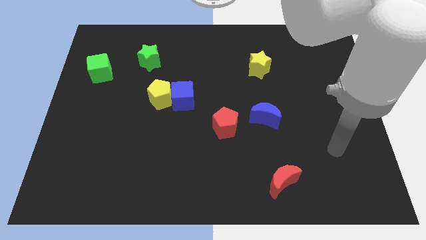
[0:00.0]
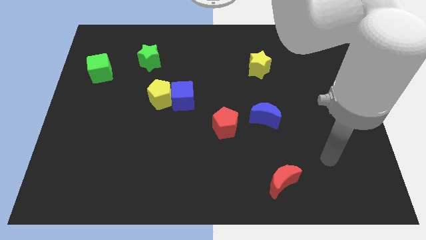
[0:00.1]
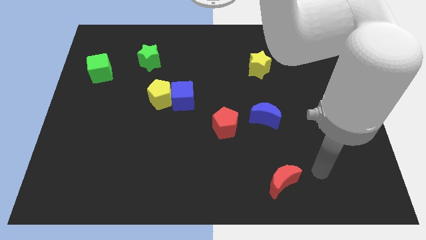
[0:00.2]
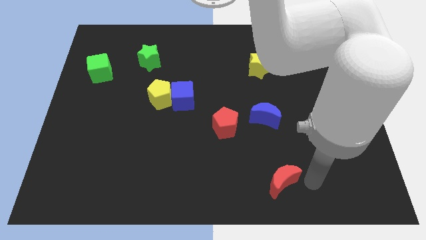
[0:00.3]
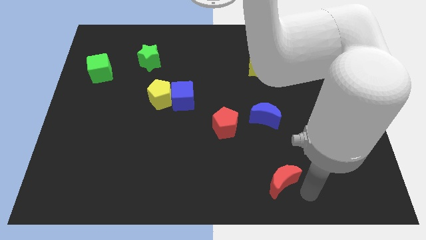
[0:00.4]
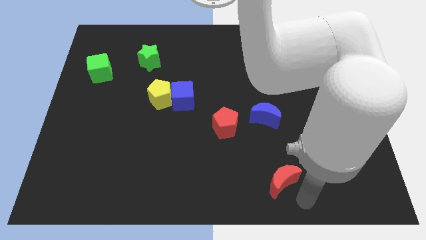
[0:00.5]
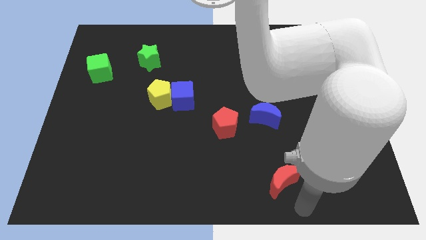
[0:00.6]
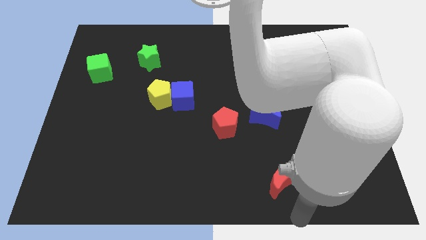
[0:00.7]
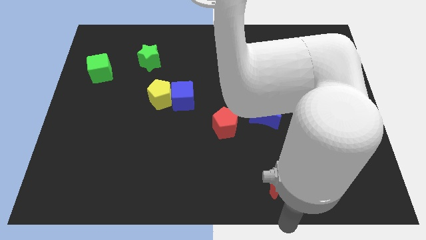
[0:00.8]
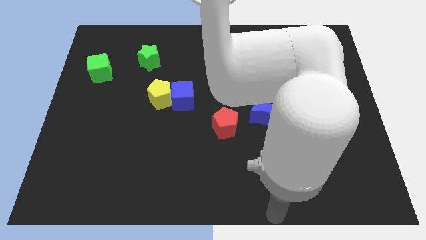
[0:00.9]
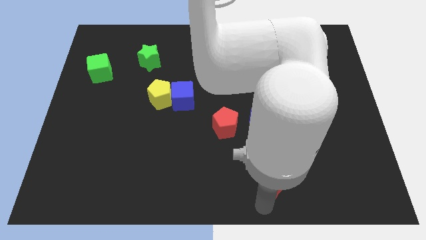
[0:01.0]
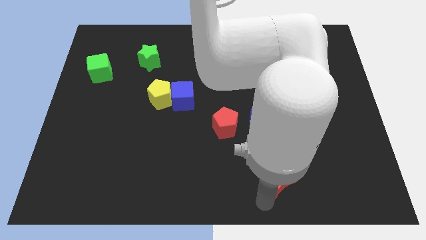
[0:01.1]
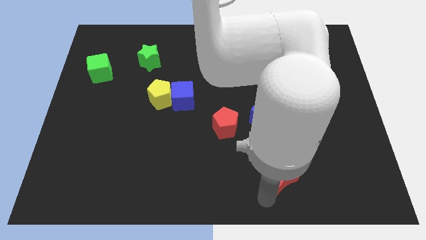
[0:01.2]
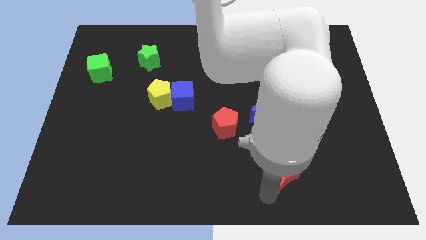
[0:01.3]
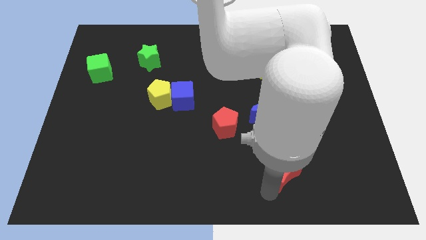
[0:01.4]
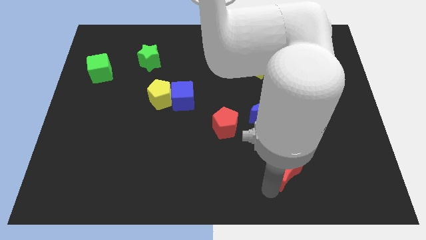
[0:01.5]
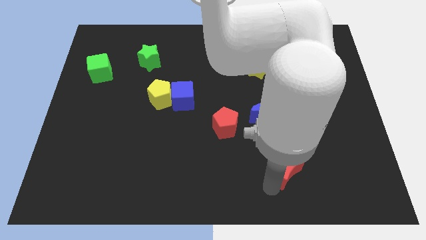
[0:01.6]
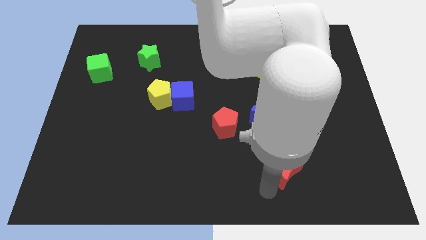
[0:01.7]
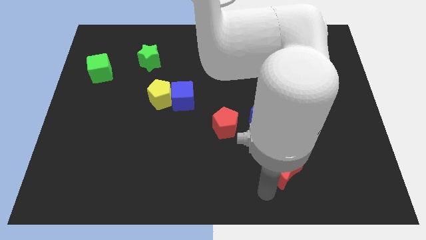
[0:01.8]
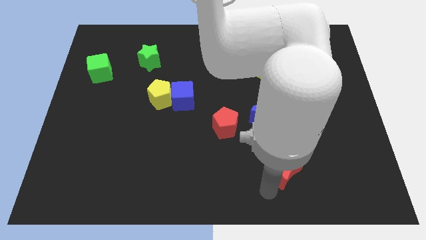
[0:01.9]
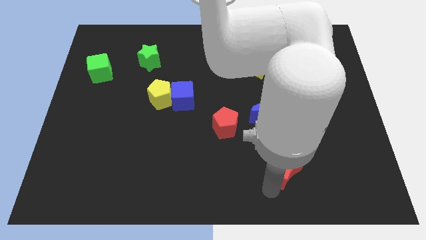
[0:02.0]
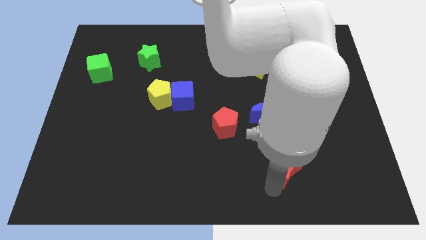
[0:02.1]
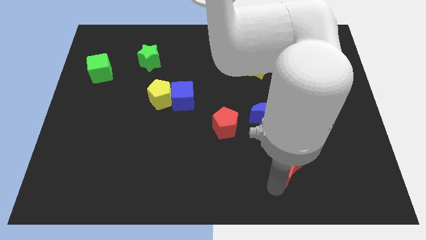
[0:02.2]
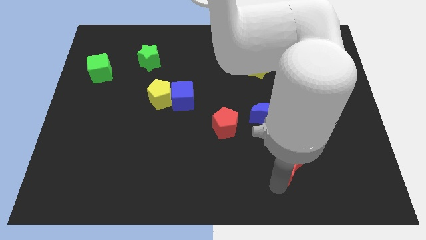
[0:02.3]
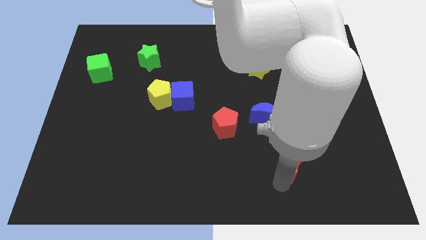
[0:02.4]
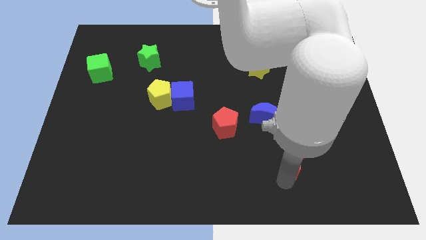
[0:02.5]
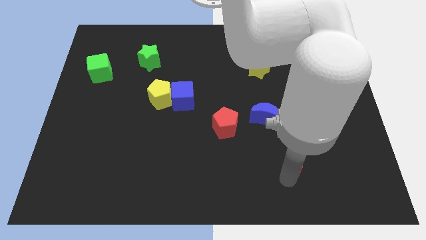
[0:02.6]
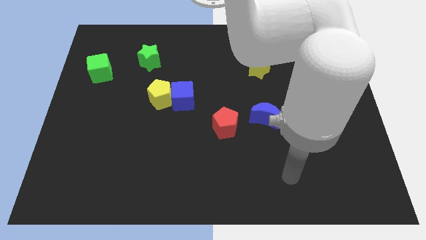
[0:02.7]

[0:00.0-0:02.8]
move the red moon diagonally up and to the right a little

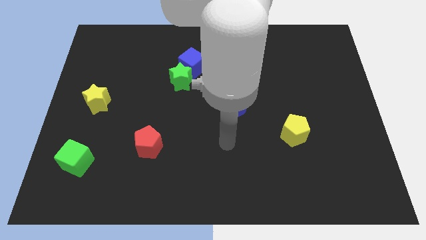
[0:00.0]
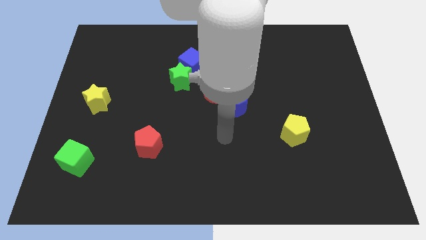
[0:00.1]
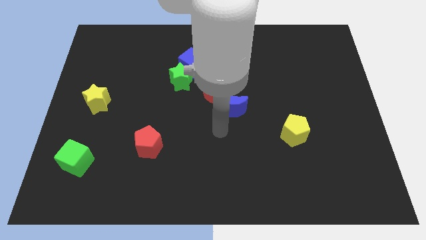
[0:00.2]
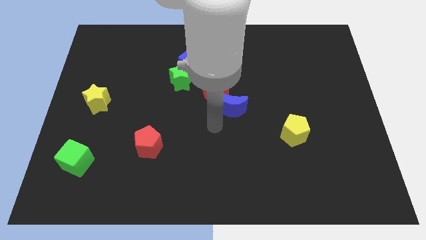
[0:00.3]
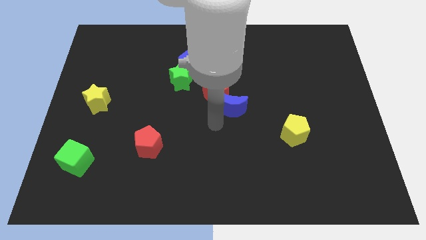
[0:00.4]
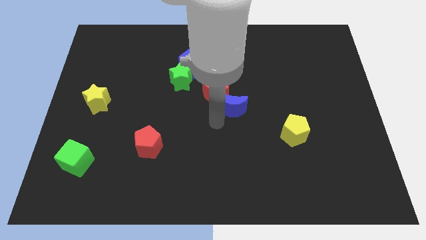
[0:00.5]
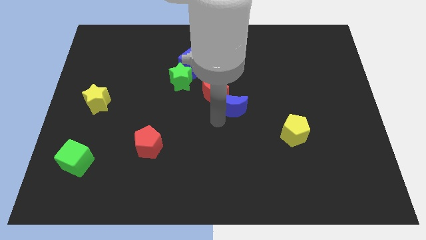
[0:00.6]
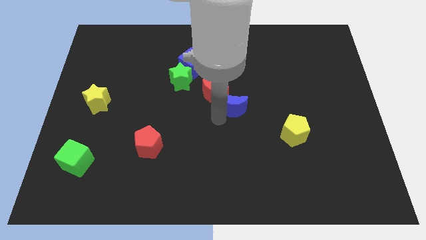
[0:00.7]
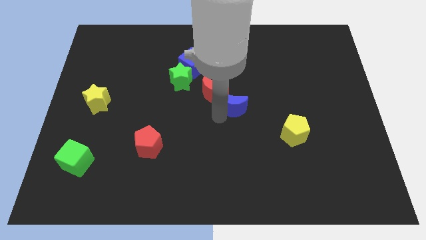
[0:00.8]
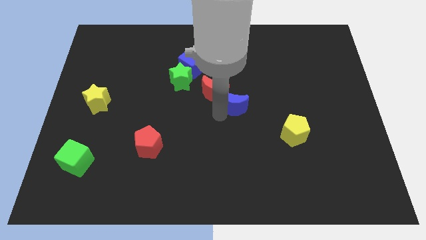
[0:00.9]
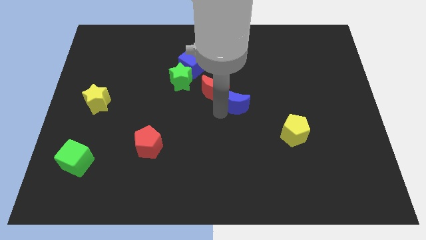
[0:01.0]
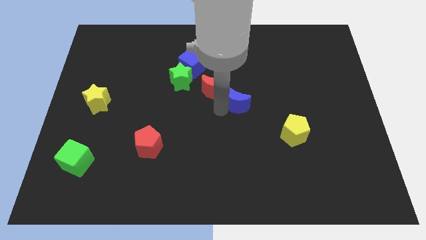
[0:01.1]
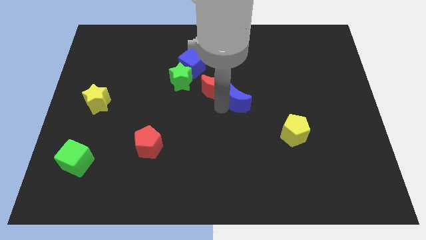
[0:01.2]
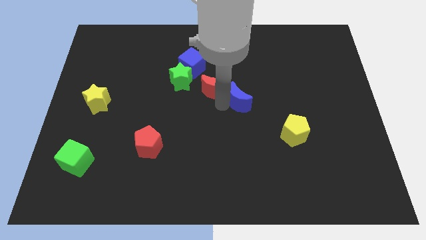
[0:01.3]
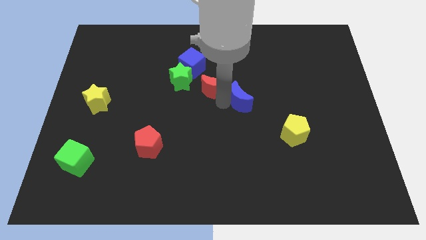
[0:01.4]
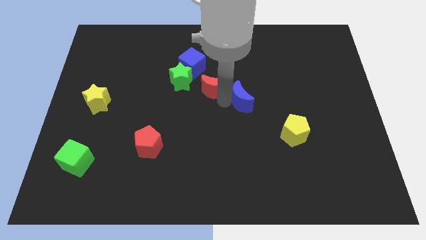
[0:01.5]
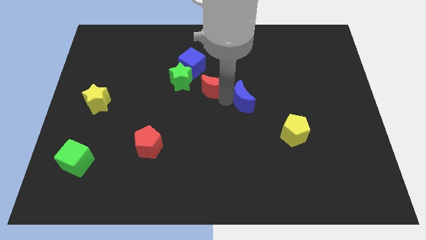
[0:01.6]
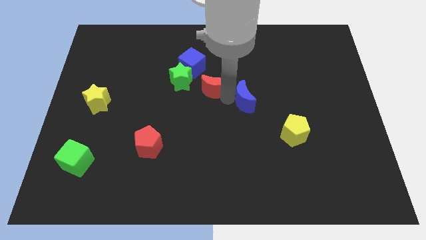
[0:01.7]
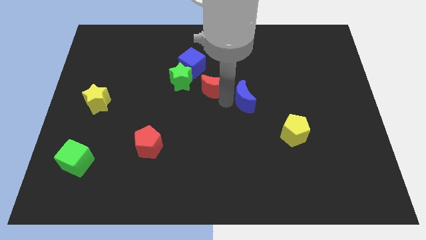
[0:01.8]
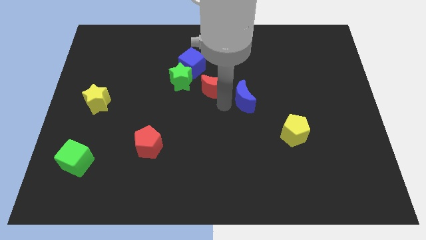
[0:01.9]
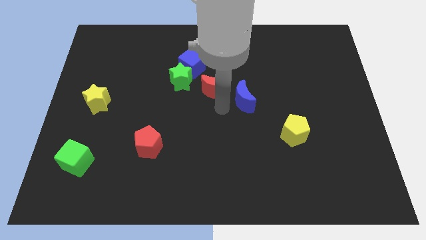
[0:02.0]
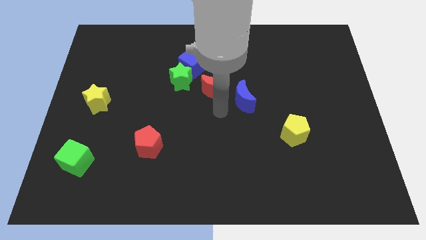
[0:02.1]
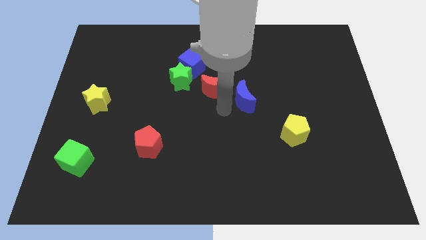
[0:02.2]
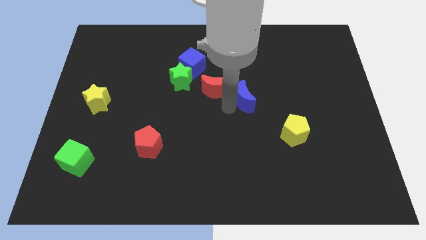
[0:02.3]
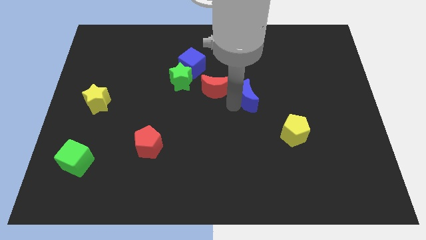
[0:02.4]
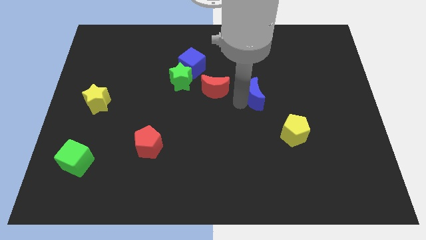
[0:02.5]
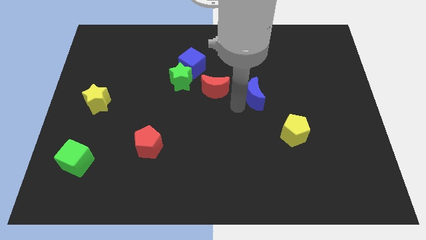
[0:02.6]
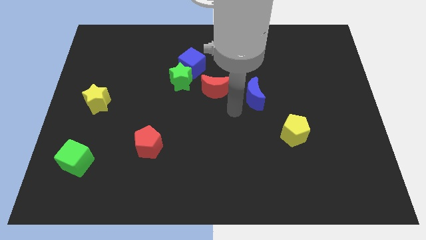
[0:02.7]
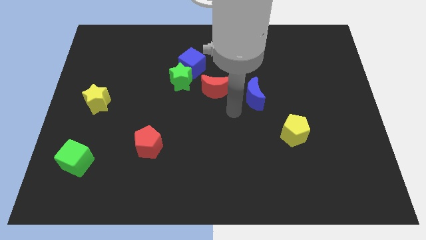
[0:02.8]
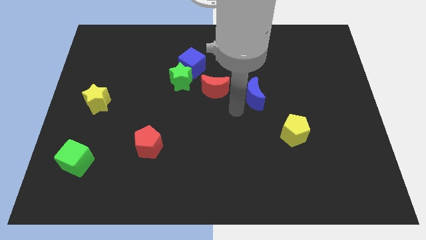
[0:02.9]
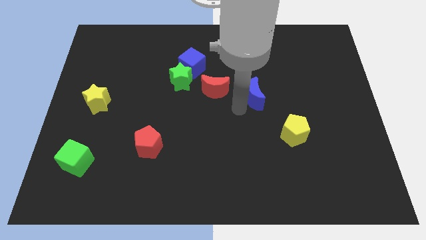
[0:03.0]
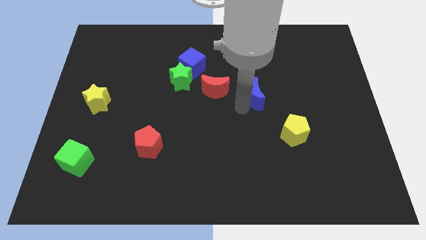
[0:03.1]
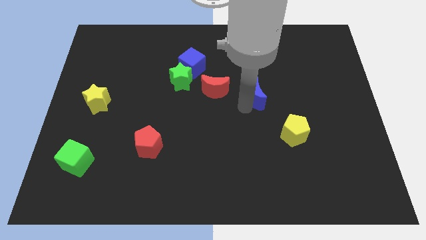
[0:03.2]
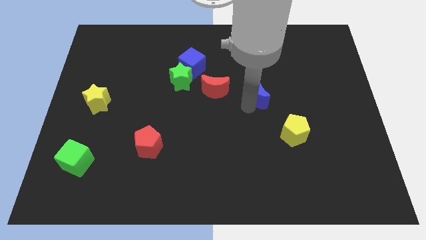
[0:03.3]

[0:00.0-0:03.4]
slightly move the blue moon upwards and to the right

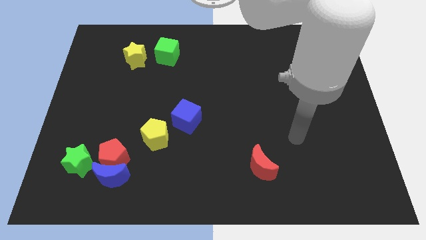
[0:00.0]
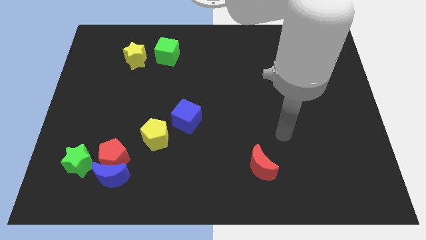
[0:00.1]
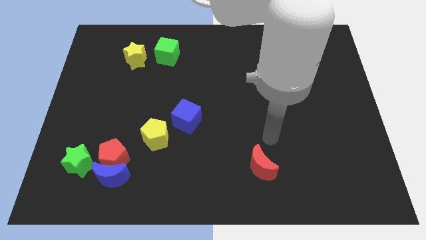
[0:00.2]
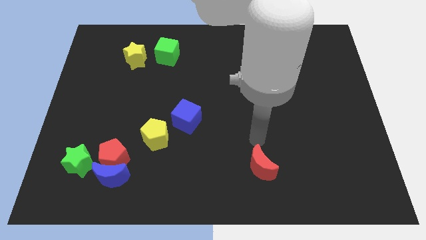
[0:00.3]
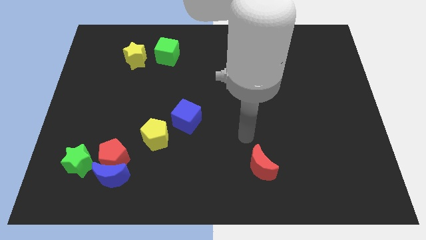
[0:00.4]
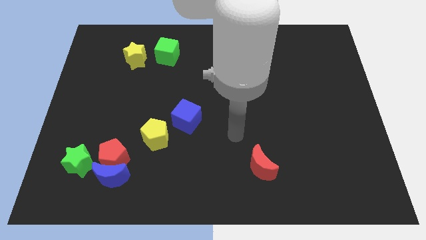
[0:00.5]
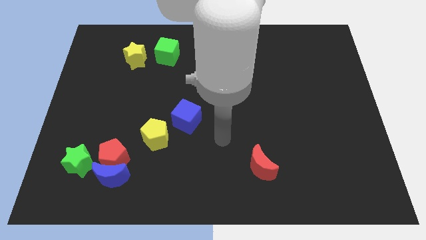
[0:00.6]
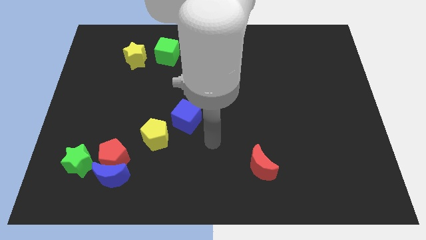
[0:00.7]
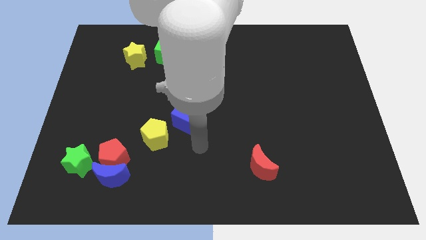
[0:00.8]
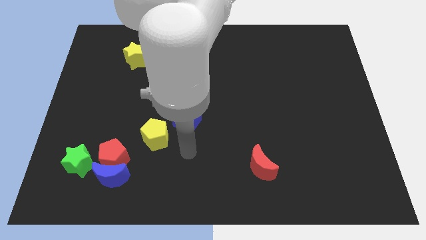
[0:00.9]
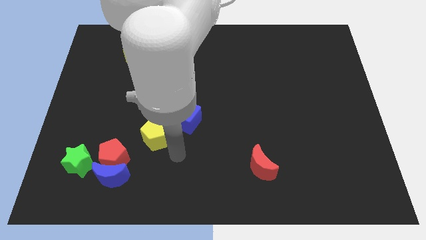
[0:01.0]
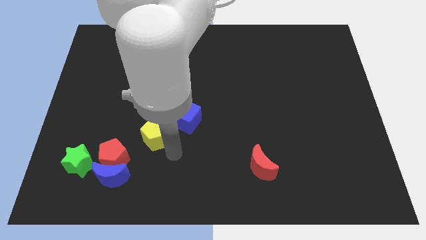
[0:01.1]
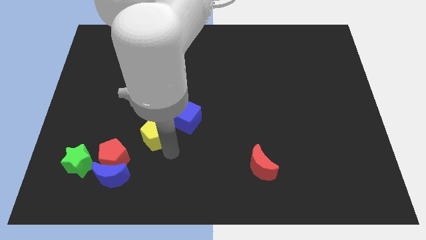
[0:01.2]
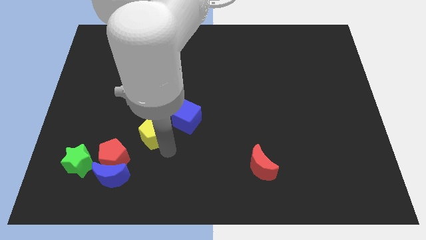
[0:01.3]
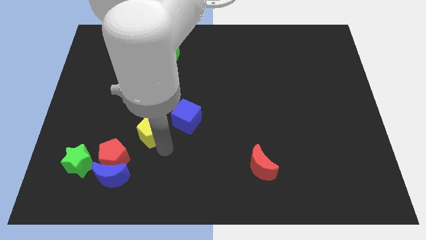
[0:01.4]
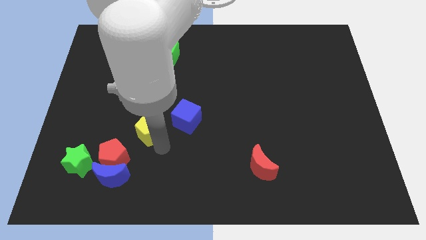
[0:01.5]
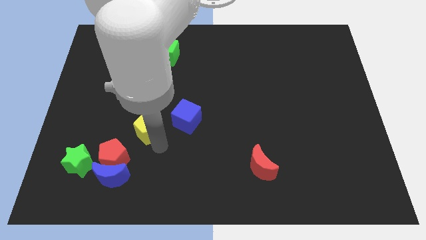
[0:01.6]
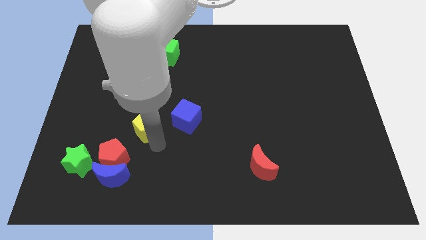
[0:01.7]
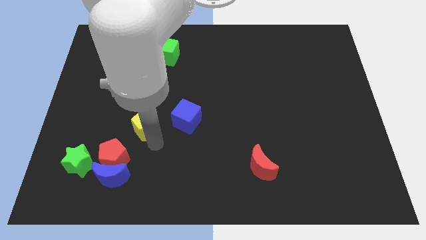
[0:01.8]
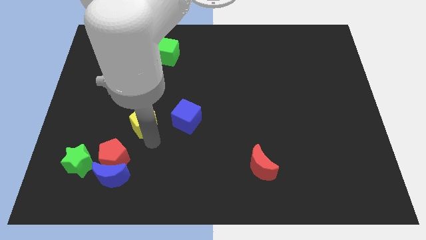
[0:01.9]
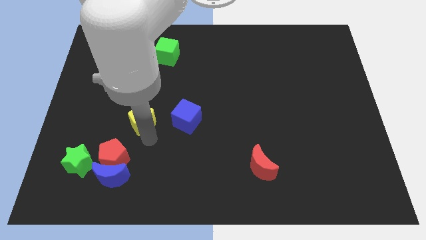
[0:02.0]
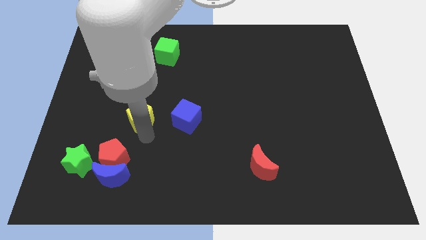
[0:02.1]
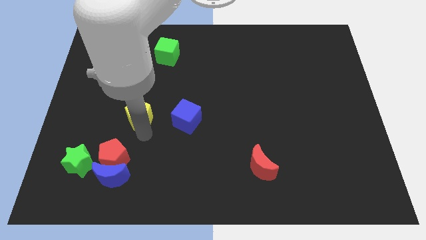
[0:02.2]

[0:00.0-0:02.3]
slide the yellow pentagon up and then left a bit
